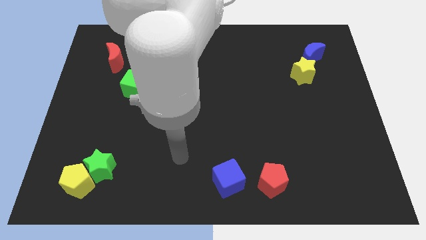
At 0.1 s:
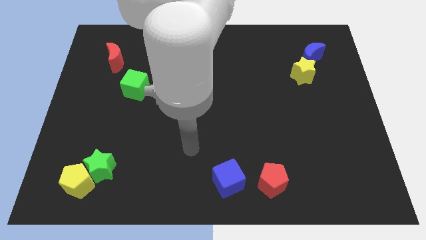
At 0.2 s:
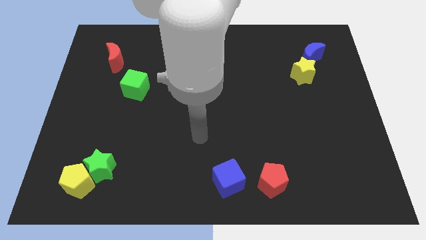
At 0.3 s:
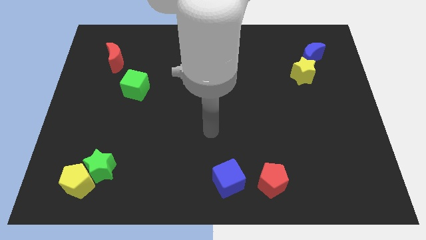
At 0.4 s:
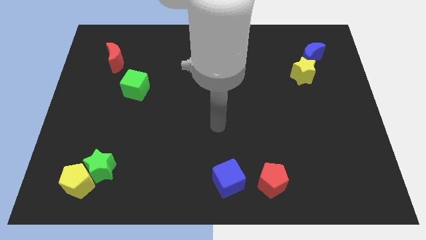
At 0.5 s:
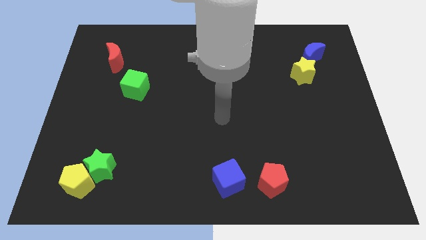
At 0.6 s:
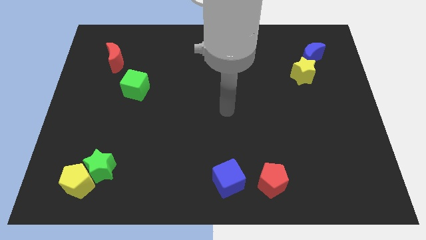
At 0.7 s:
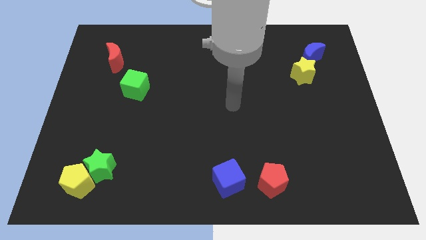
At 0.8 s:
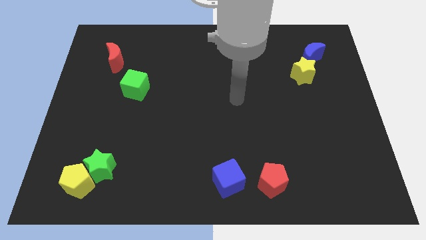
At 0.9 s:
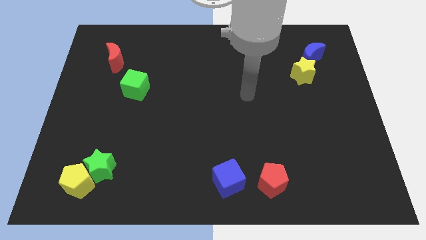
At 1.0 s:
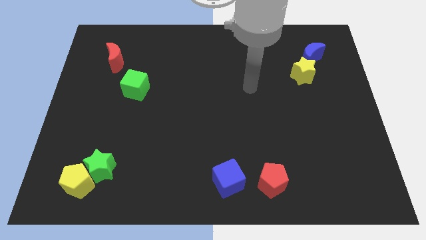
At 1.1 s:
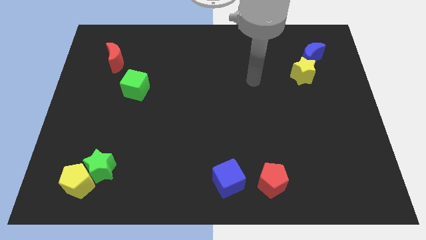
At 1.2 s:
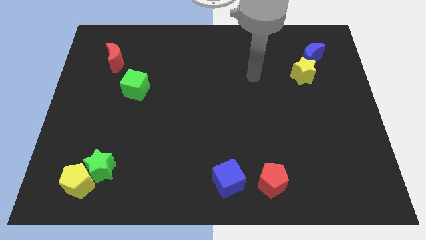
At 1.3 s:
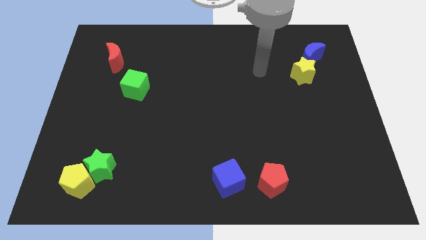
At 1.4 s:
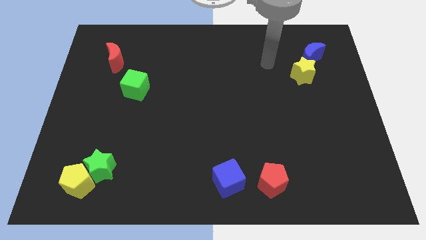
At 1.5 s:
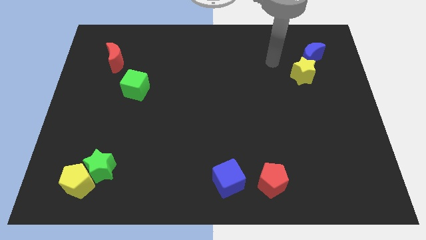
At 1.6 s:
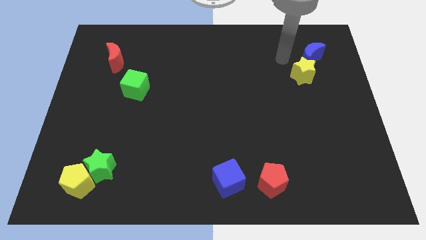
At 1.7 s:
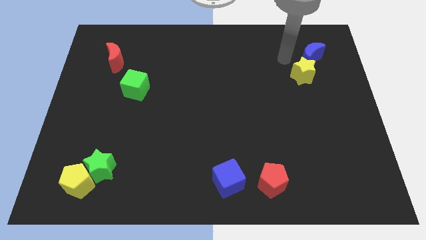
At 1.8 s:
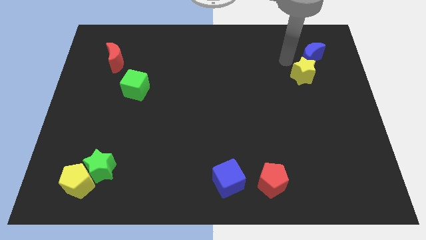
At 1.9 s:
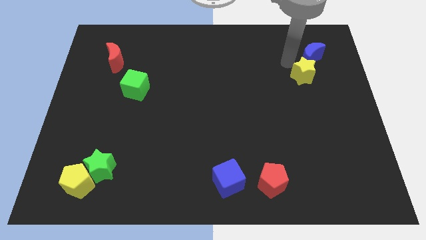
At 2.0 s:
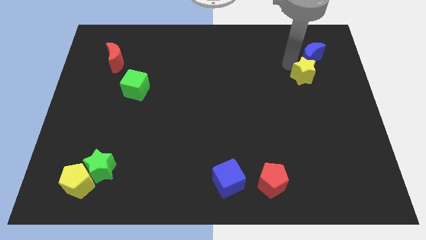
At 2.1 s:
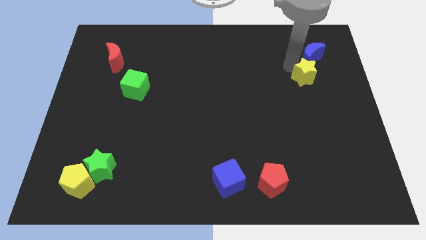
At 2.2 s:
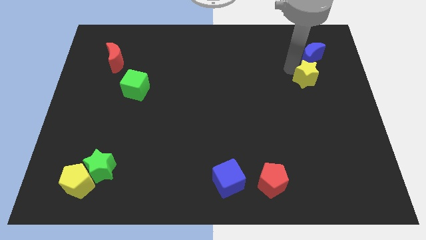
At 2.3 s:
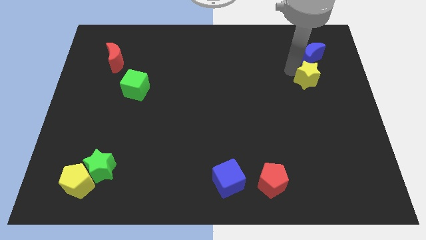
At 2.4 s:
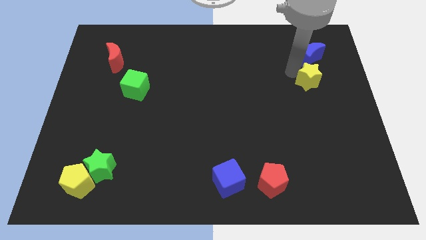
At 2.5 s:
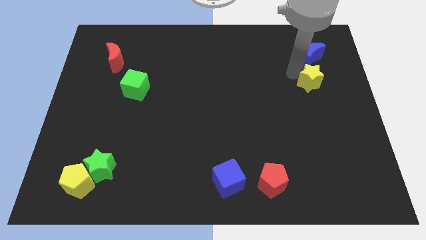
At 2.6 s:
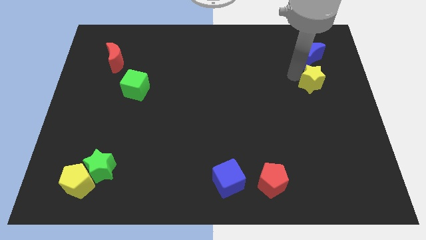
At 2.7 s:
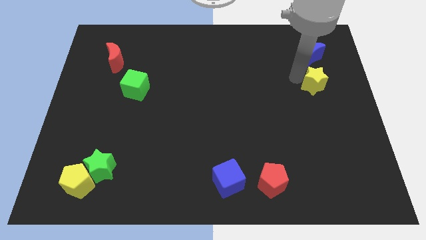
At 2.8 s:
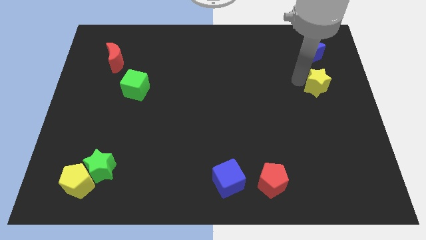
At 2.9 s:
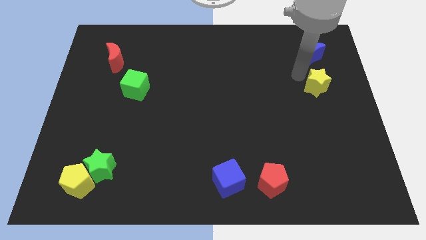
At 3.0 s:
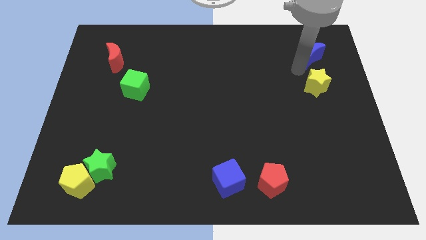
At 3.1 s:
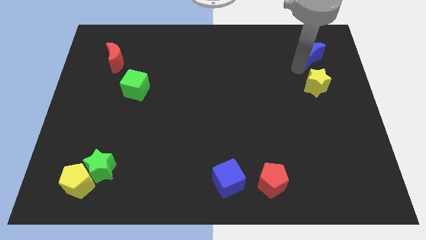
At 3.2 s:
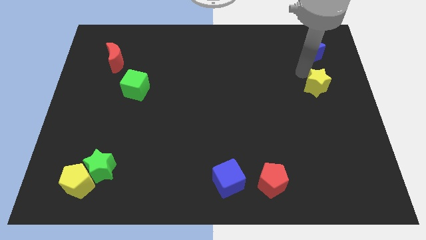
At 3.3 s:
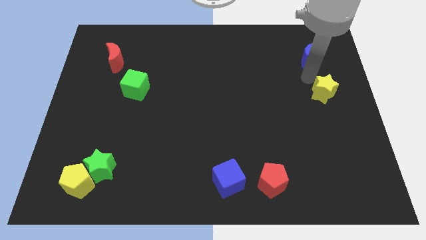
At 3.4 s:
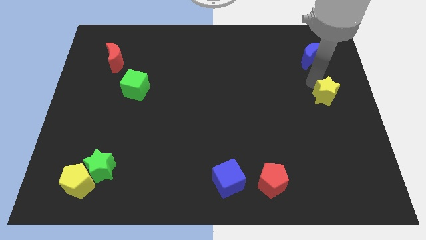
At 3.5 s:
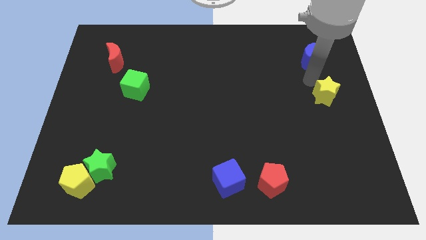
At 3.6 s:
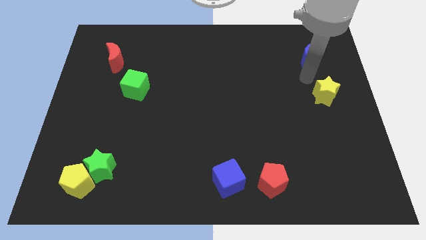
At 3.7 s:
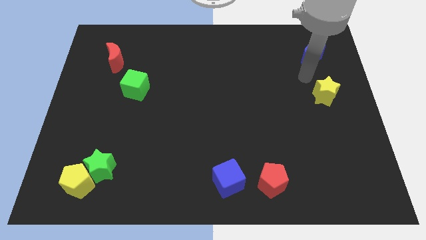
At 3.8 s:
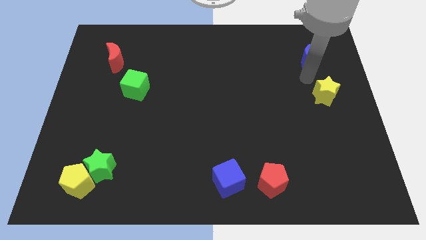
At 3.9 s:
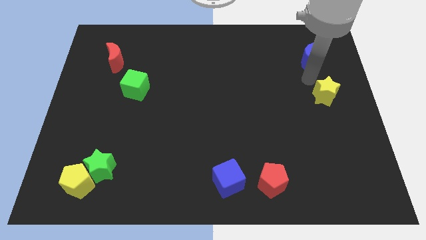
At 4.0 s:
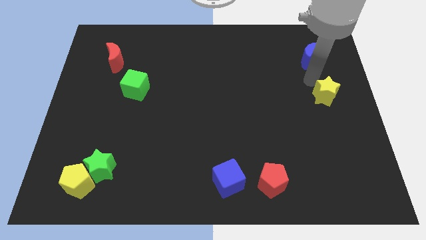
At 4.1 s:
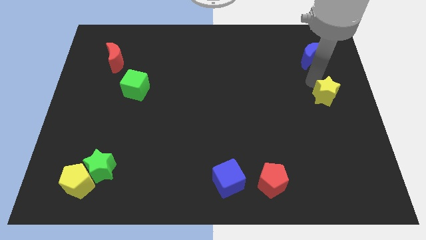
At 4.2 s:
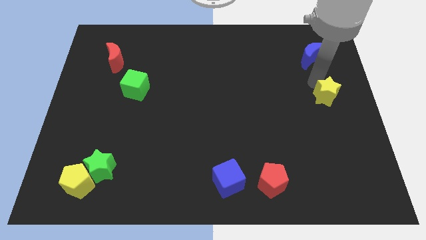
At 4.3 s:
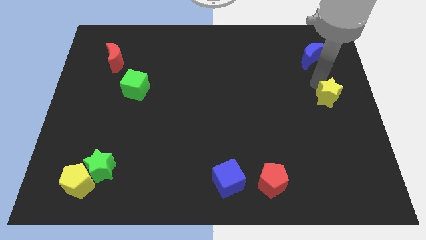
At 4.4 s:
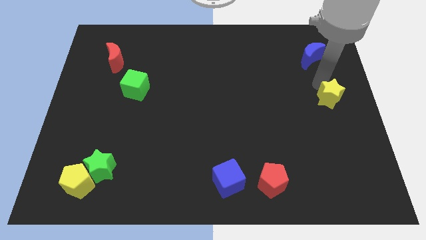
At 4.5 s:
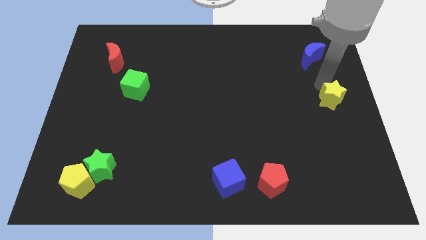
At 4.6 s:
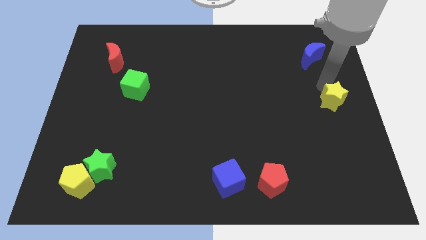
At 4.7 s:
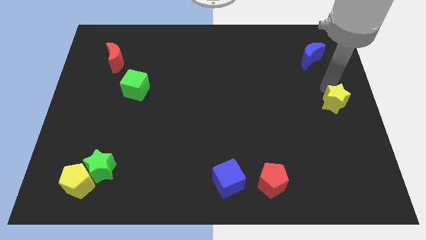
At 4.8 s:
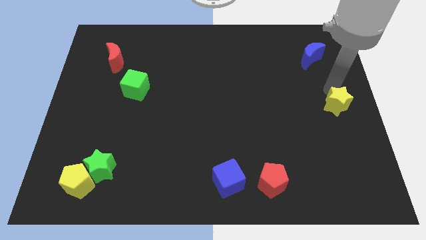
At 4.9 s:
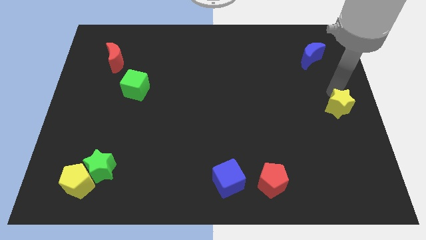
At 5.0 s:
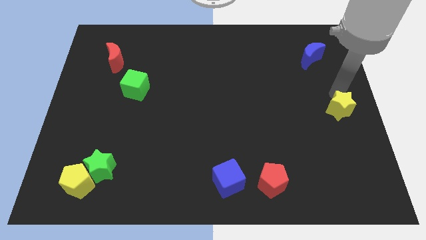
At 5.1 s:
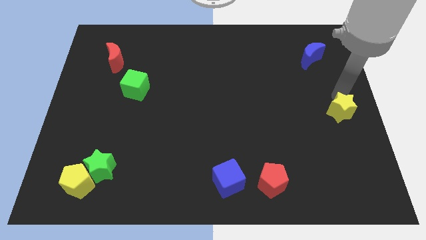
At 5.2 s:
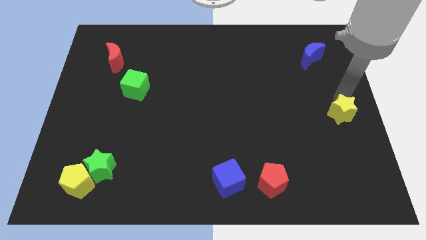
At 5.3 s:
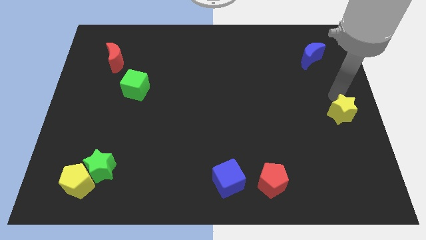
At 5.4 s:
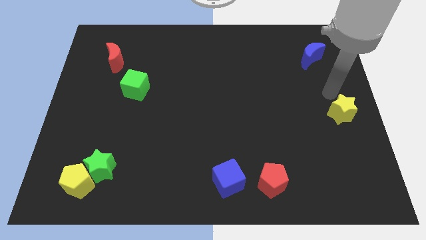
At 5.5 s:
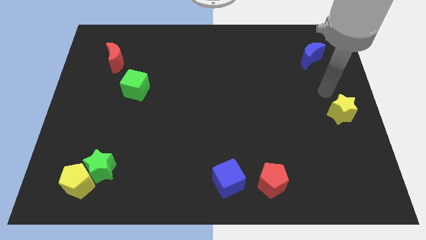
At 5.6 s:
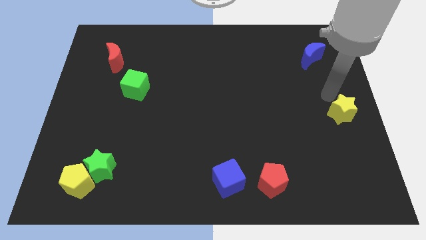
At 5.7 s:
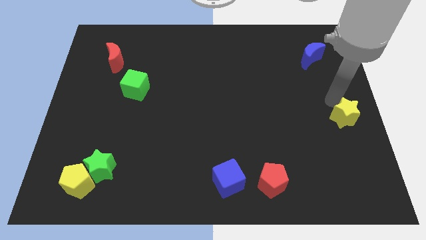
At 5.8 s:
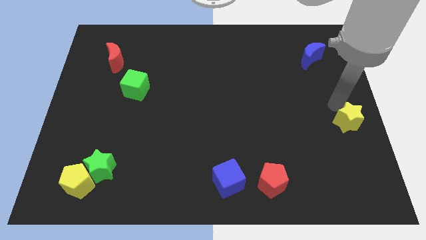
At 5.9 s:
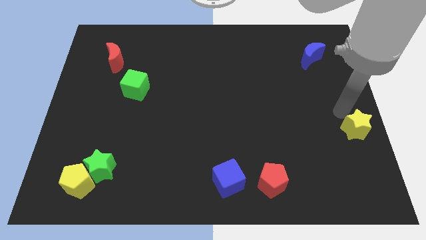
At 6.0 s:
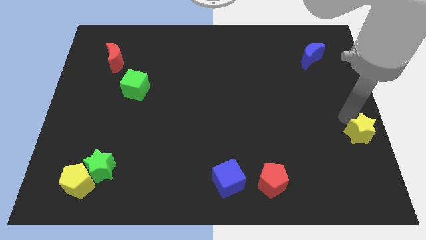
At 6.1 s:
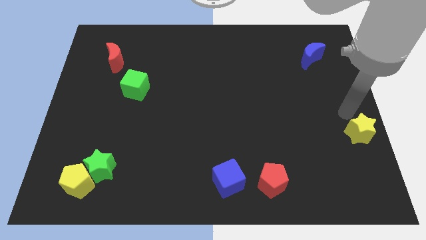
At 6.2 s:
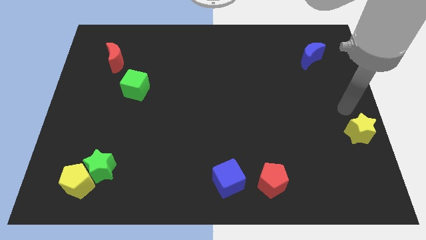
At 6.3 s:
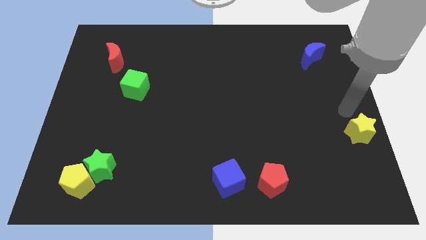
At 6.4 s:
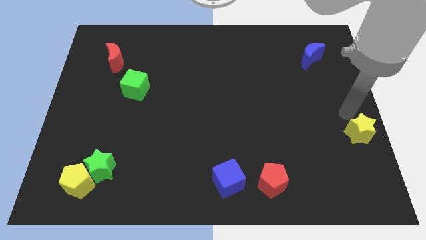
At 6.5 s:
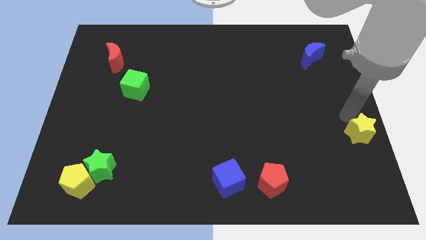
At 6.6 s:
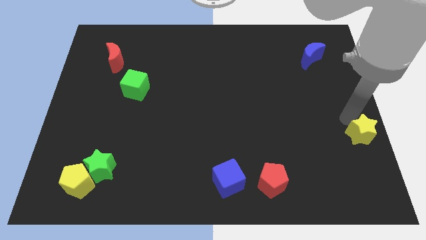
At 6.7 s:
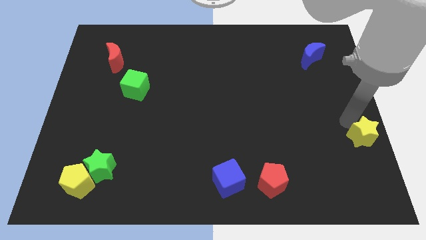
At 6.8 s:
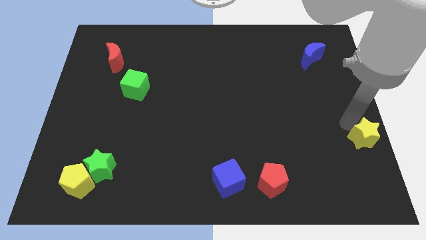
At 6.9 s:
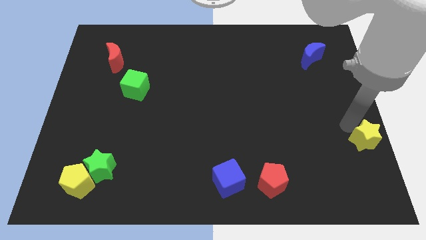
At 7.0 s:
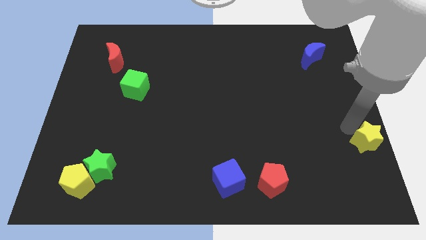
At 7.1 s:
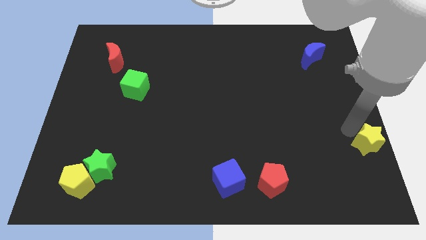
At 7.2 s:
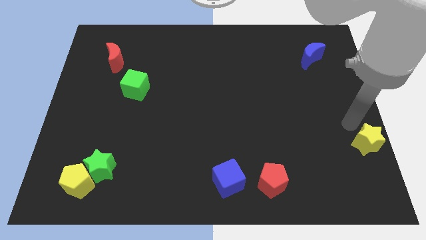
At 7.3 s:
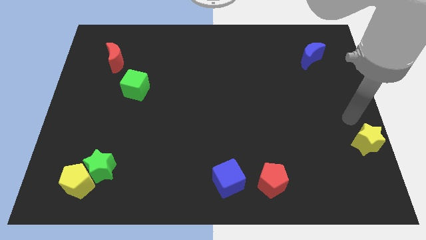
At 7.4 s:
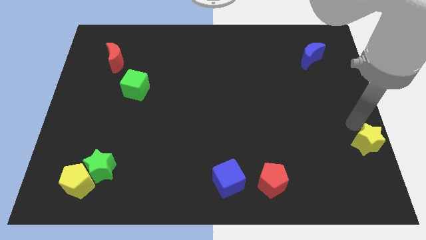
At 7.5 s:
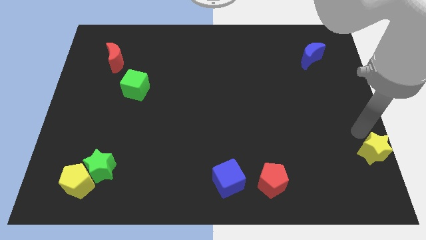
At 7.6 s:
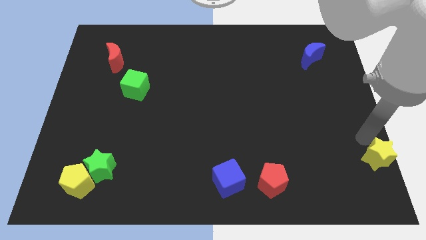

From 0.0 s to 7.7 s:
put the yellow star to the bottom right of the board
